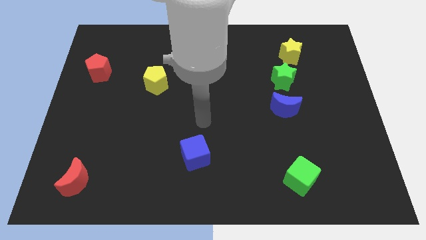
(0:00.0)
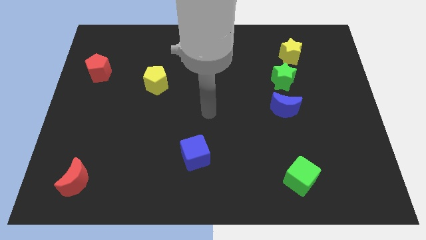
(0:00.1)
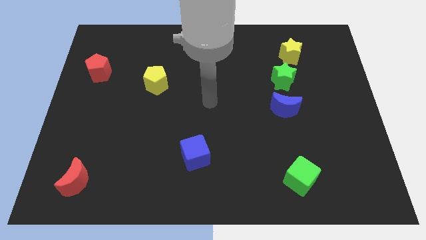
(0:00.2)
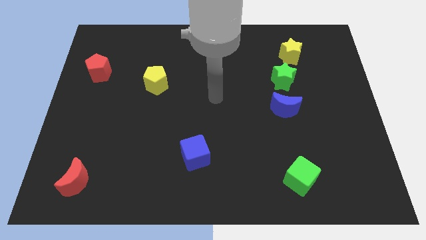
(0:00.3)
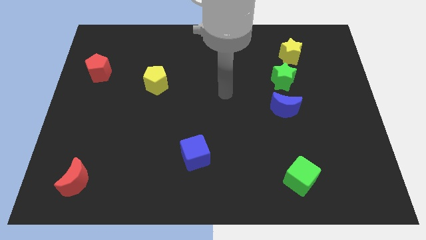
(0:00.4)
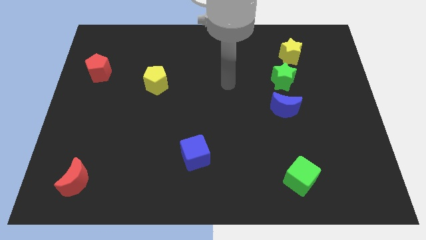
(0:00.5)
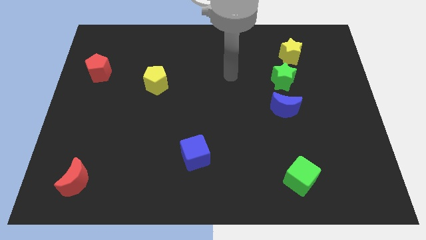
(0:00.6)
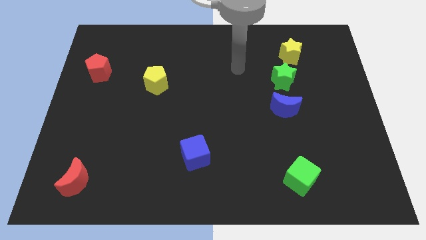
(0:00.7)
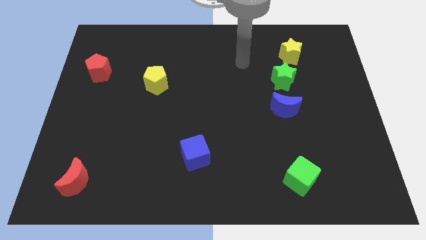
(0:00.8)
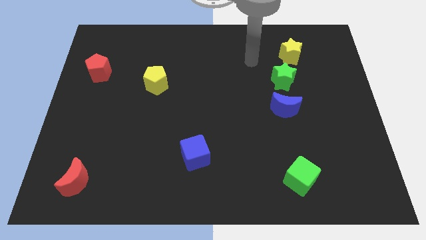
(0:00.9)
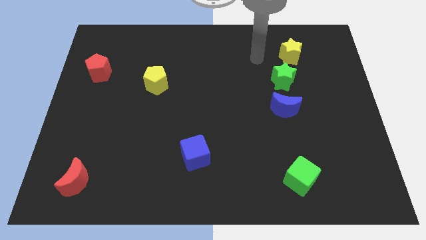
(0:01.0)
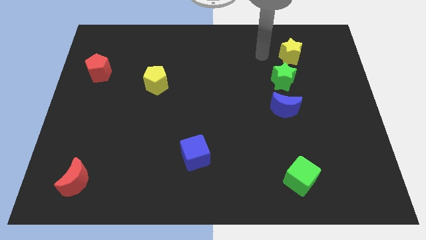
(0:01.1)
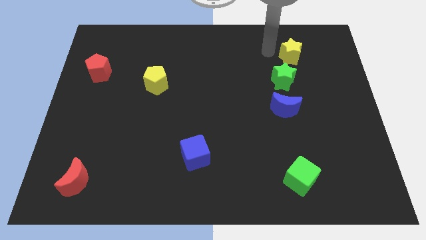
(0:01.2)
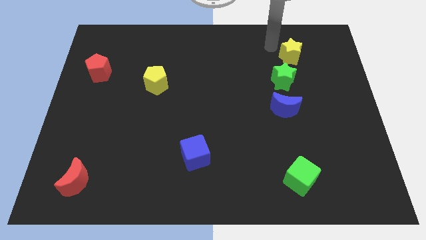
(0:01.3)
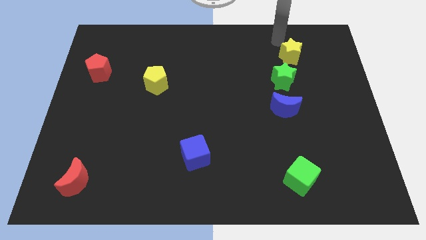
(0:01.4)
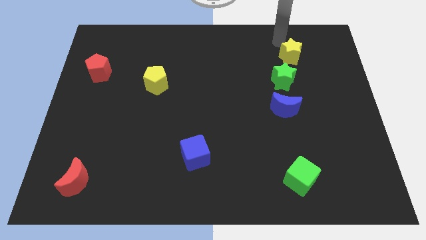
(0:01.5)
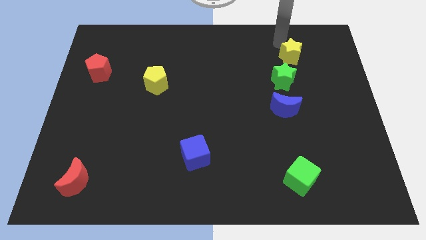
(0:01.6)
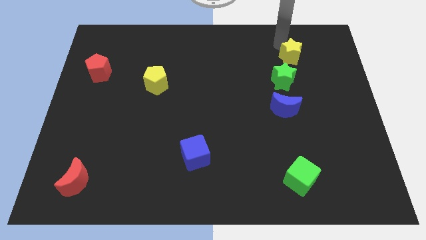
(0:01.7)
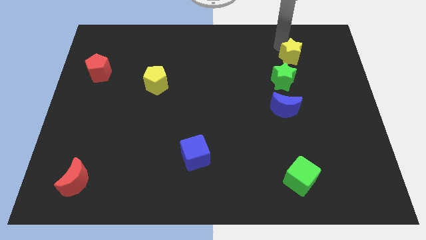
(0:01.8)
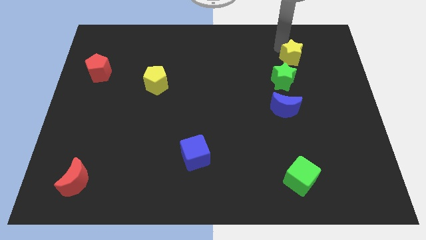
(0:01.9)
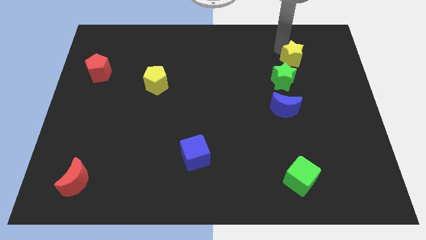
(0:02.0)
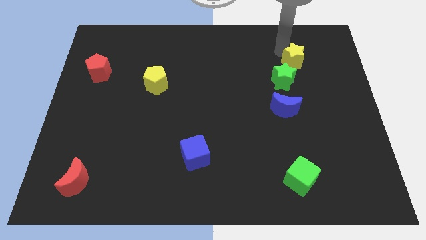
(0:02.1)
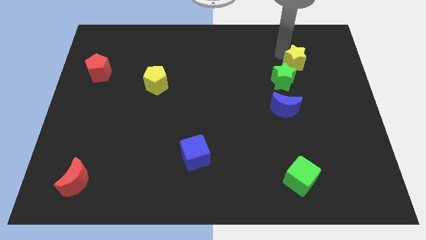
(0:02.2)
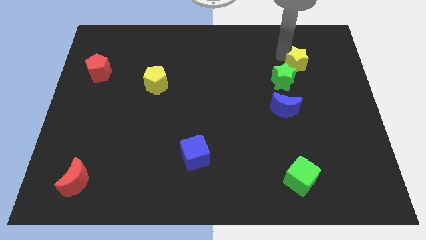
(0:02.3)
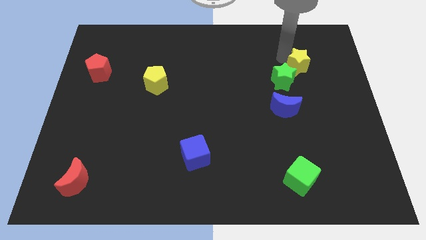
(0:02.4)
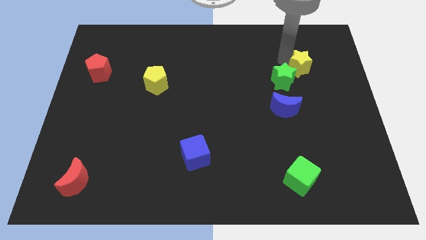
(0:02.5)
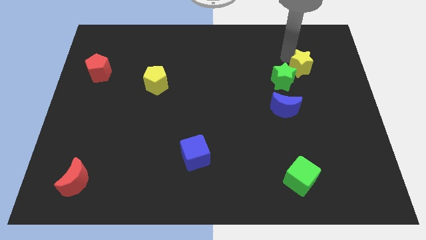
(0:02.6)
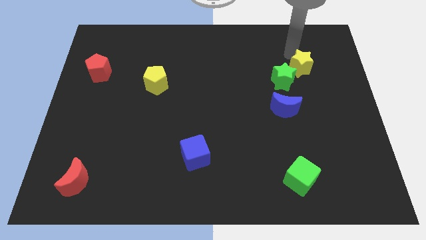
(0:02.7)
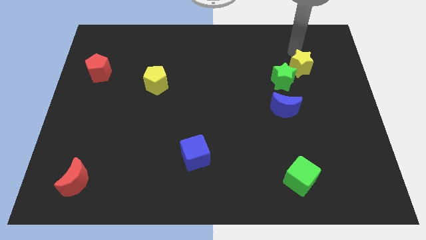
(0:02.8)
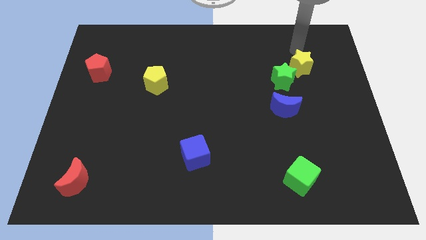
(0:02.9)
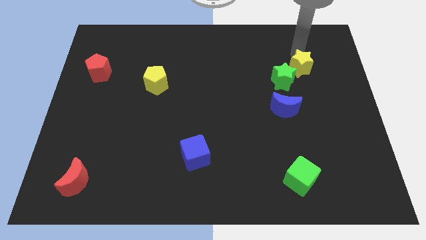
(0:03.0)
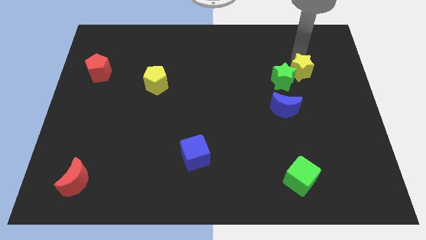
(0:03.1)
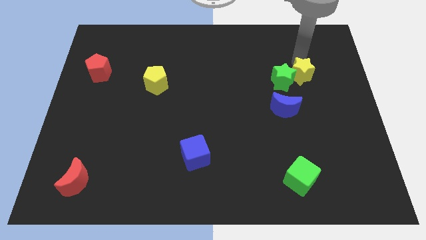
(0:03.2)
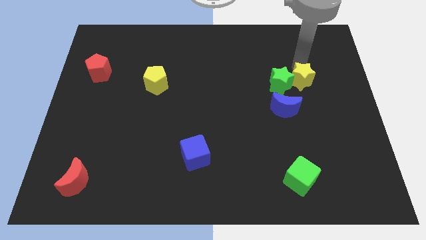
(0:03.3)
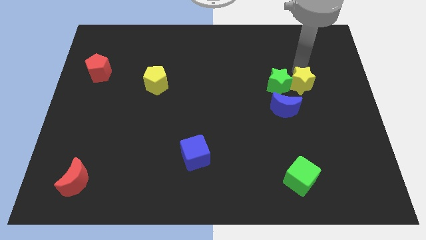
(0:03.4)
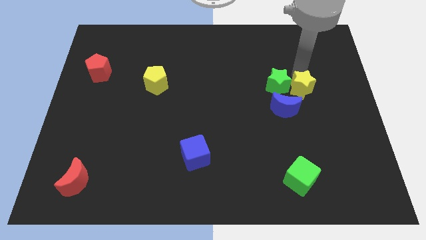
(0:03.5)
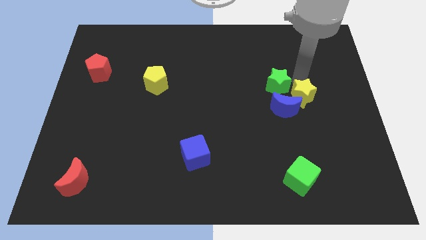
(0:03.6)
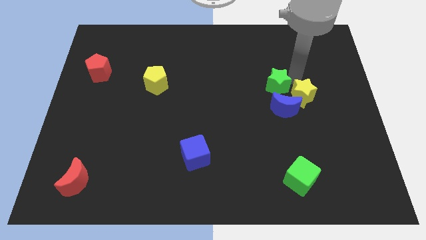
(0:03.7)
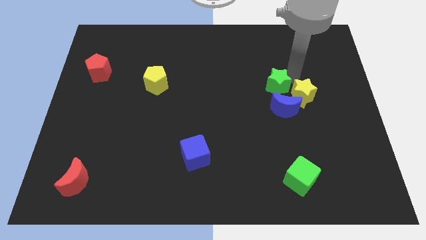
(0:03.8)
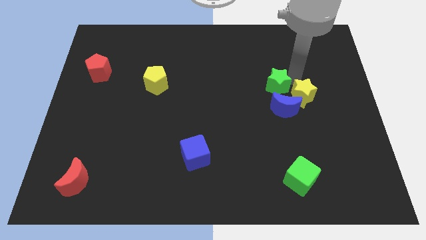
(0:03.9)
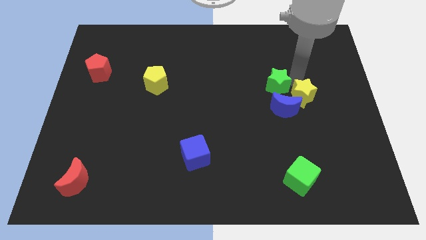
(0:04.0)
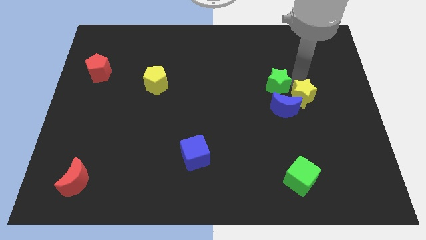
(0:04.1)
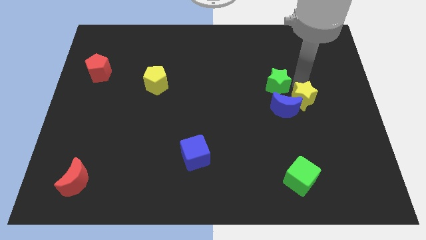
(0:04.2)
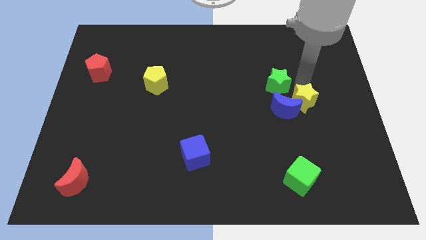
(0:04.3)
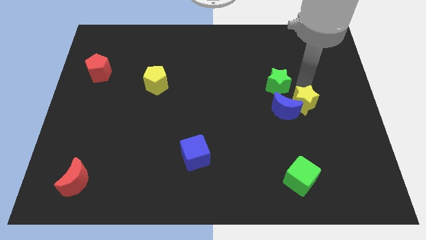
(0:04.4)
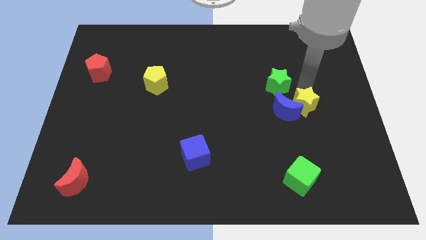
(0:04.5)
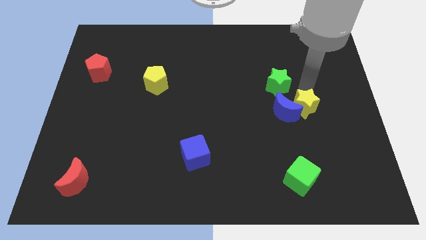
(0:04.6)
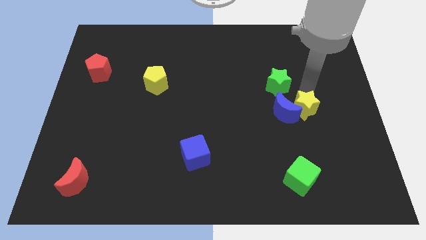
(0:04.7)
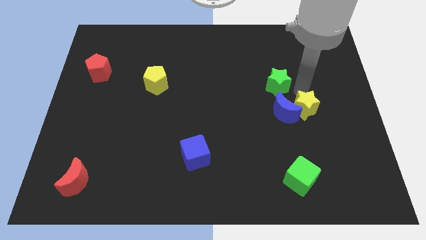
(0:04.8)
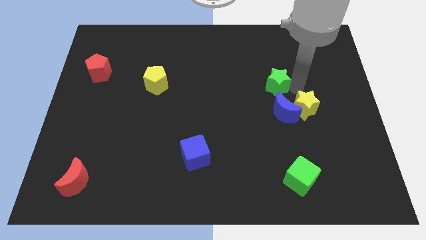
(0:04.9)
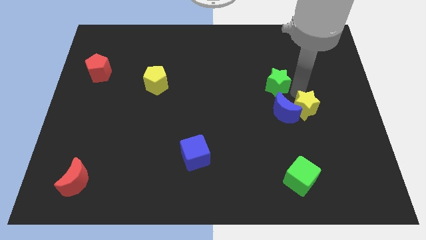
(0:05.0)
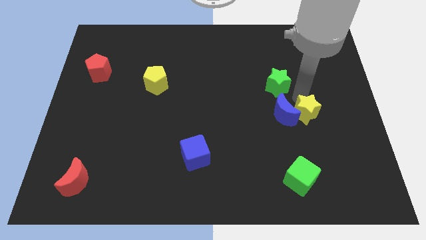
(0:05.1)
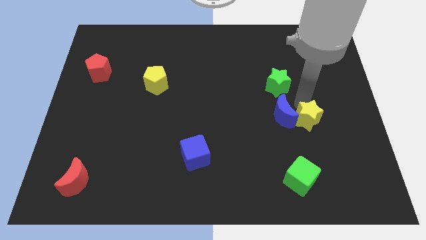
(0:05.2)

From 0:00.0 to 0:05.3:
slide the yellow star downwards

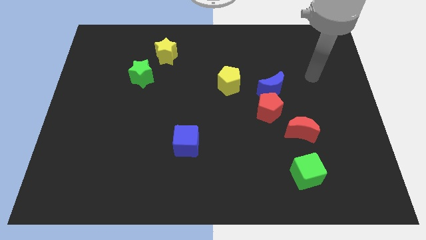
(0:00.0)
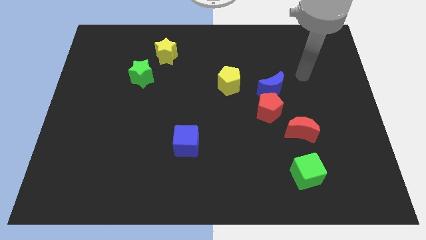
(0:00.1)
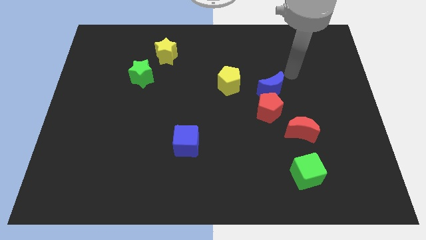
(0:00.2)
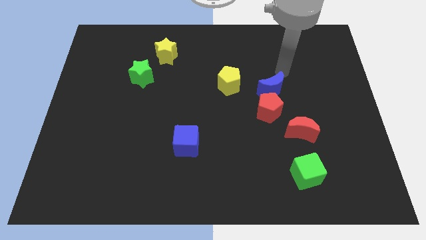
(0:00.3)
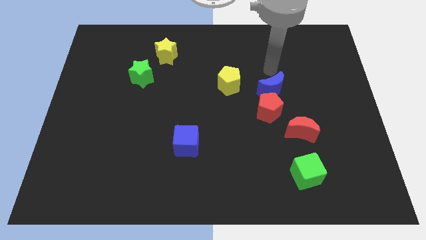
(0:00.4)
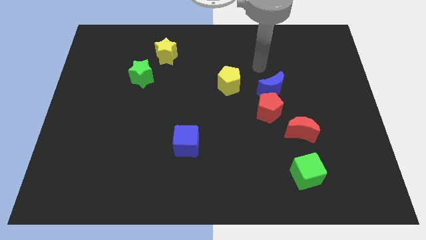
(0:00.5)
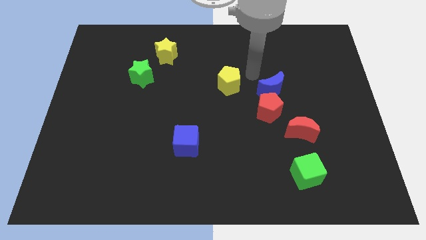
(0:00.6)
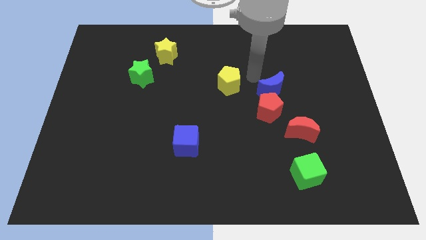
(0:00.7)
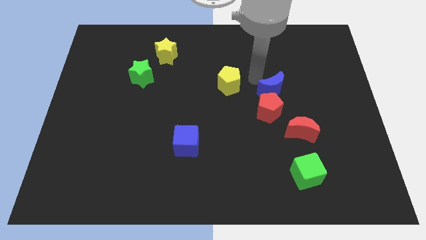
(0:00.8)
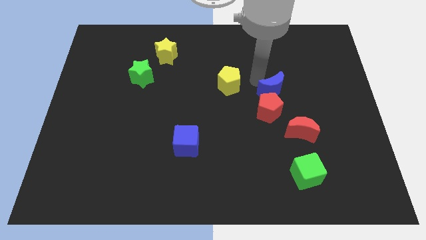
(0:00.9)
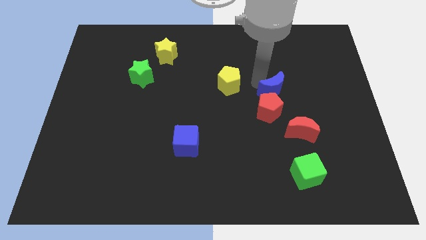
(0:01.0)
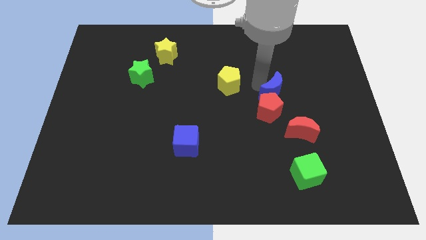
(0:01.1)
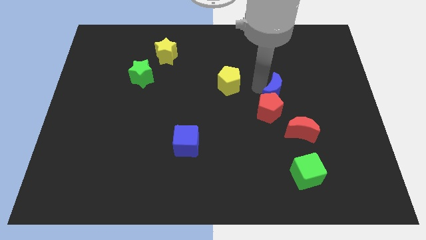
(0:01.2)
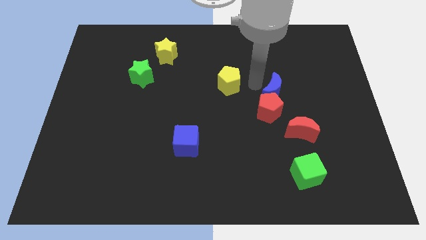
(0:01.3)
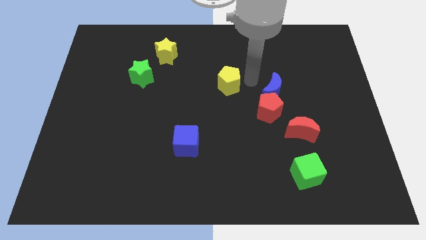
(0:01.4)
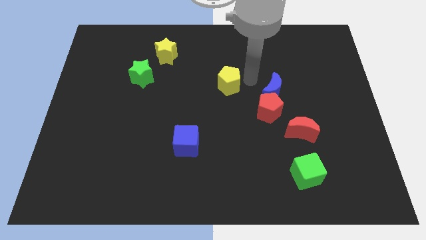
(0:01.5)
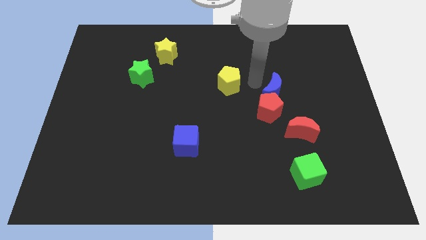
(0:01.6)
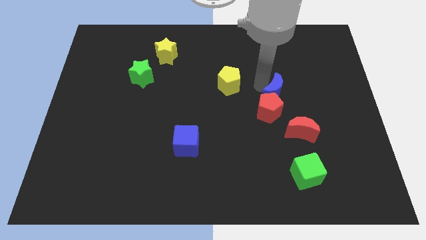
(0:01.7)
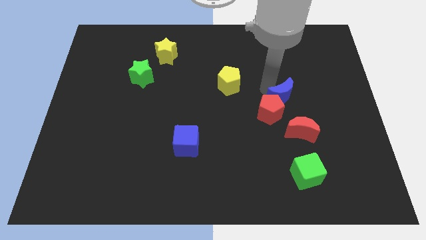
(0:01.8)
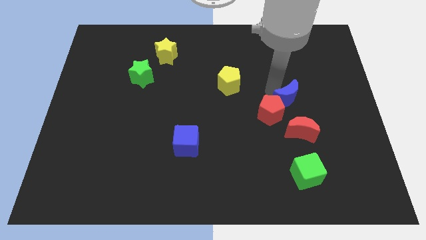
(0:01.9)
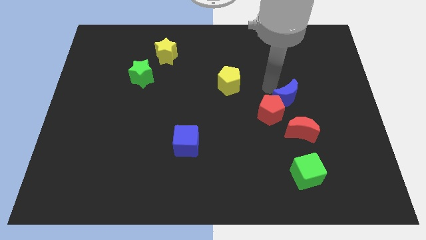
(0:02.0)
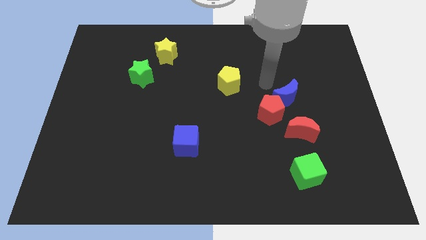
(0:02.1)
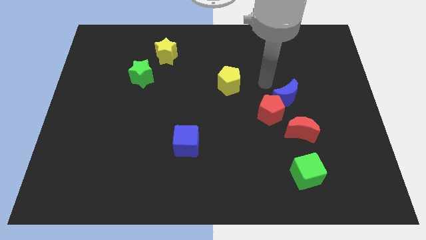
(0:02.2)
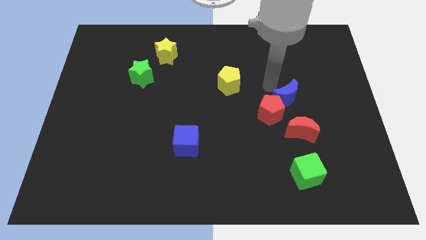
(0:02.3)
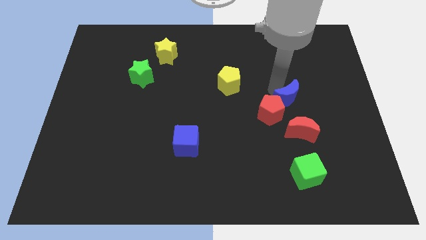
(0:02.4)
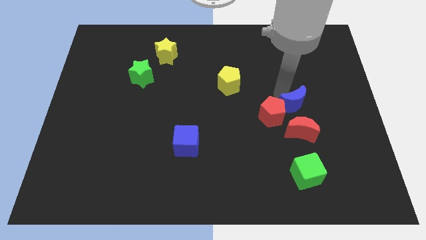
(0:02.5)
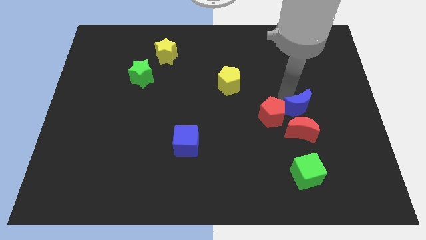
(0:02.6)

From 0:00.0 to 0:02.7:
push the blue moon a little bit down and then to the right
